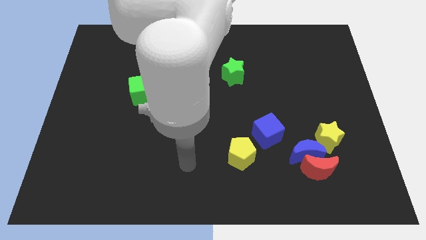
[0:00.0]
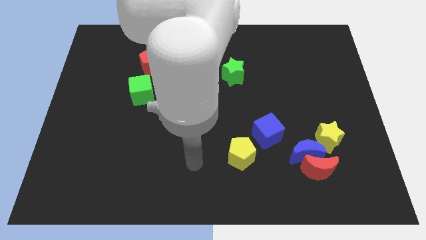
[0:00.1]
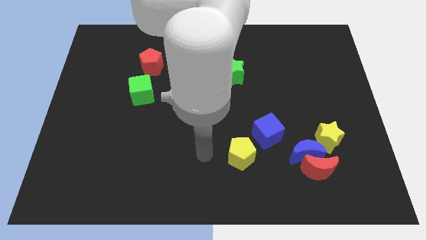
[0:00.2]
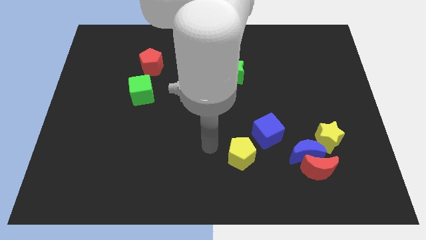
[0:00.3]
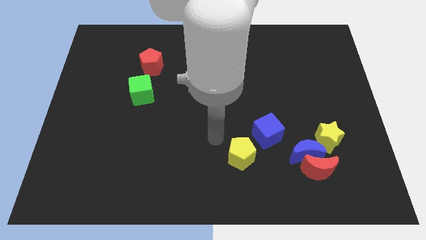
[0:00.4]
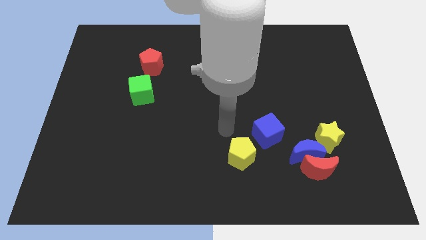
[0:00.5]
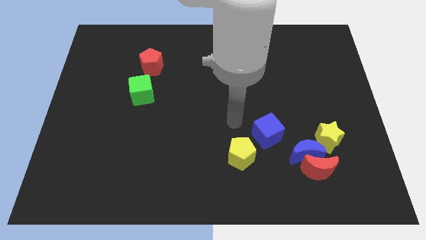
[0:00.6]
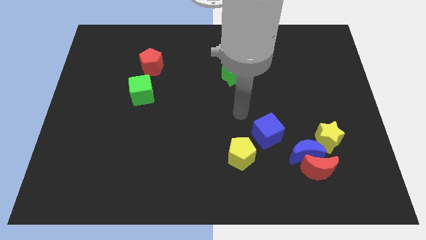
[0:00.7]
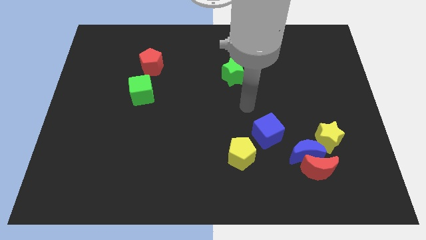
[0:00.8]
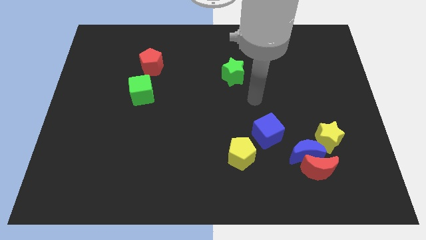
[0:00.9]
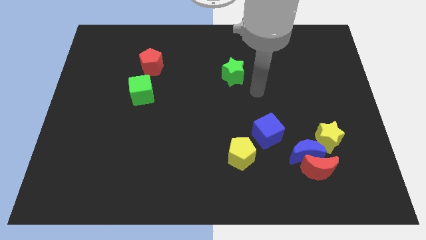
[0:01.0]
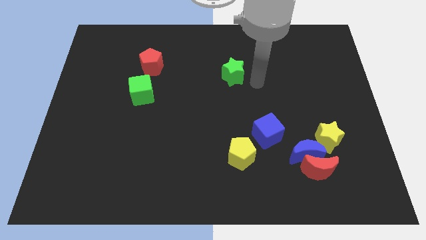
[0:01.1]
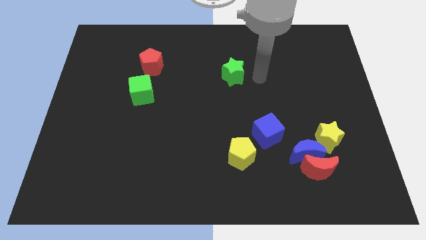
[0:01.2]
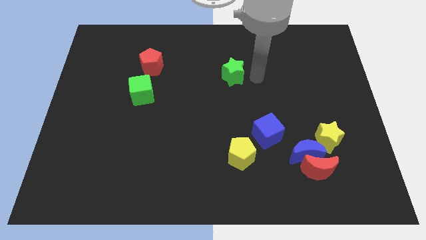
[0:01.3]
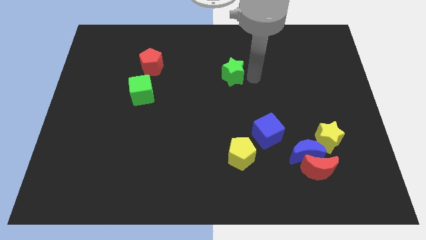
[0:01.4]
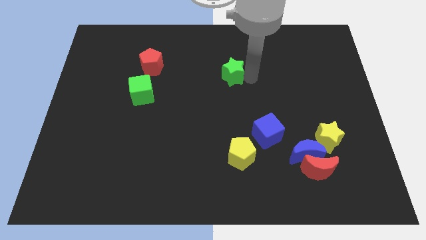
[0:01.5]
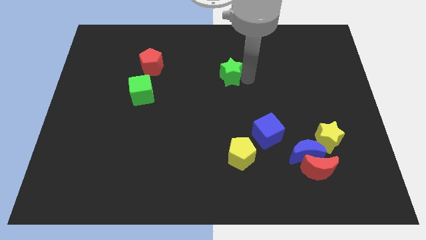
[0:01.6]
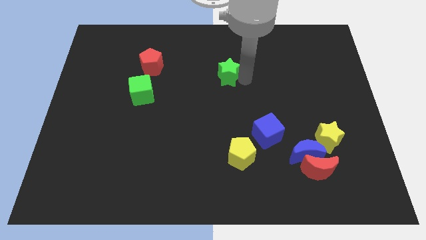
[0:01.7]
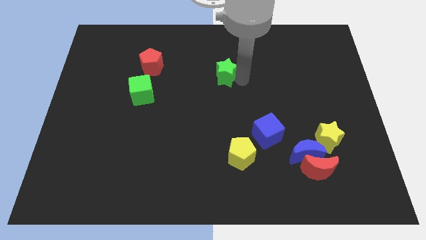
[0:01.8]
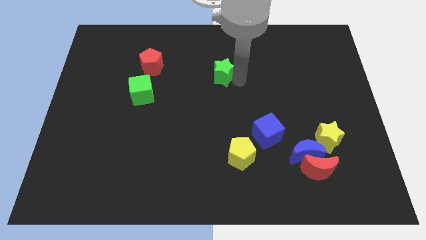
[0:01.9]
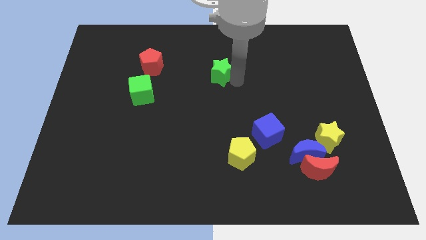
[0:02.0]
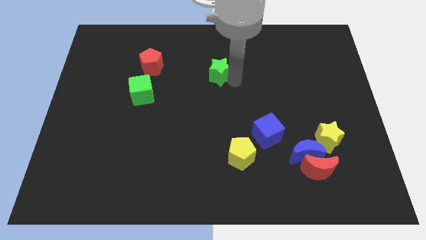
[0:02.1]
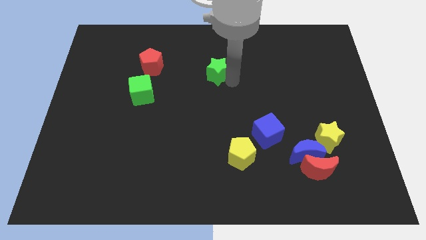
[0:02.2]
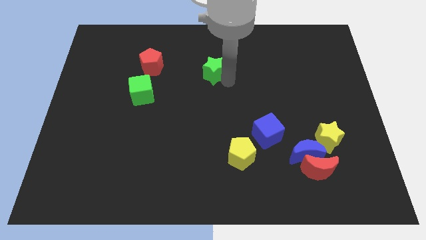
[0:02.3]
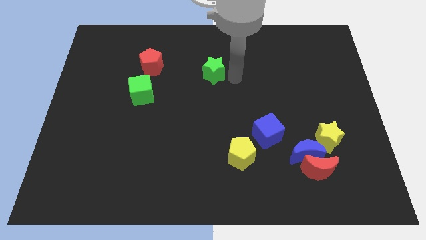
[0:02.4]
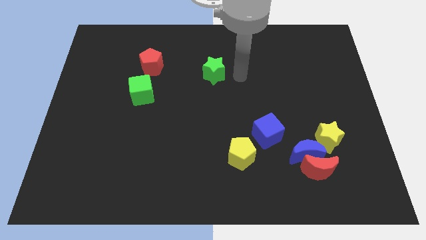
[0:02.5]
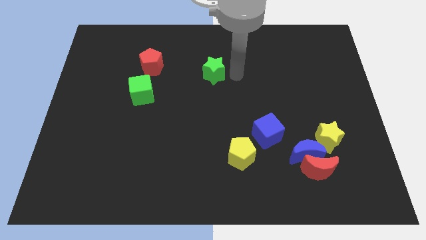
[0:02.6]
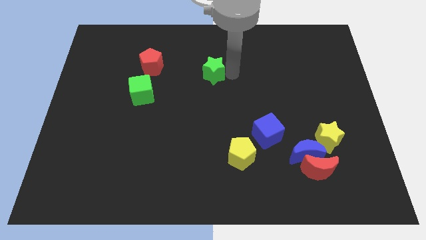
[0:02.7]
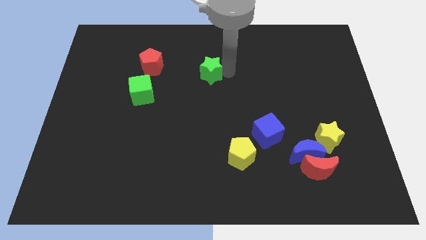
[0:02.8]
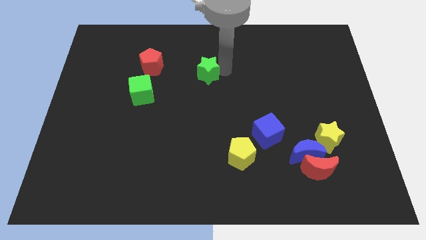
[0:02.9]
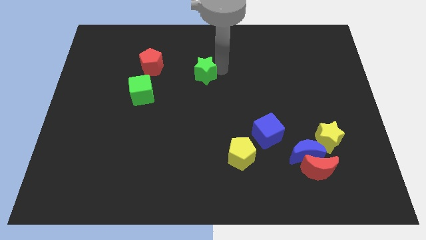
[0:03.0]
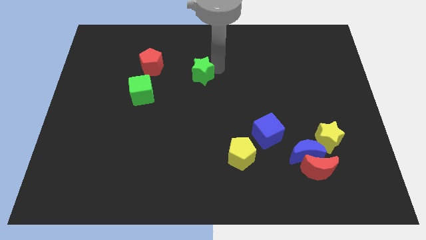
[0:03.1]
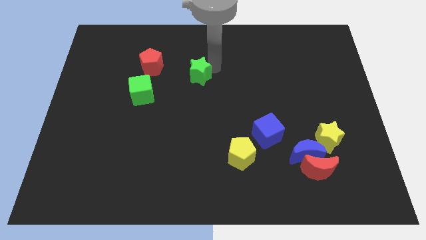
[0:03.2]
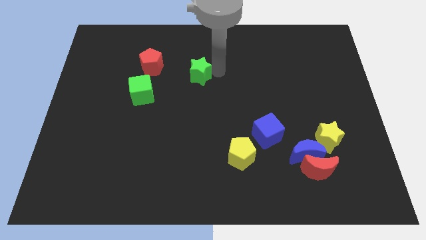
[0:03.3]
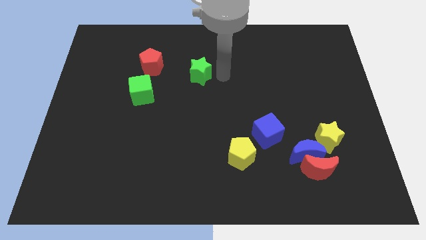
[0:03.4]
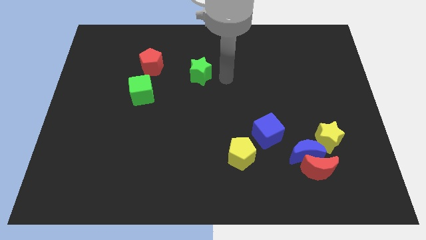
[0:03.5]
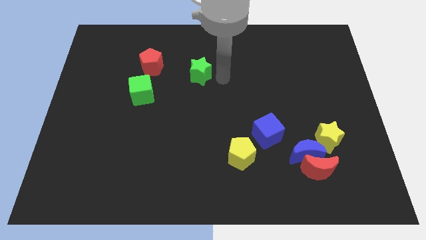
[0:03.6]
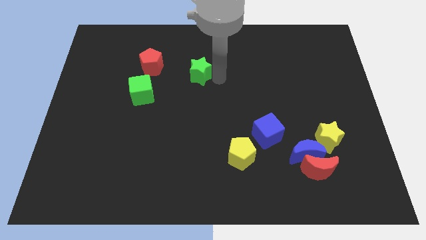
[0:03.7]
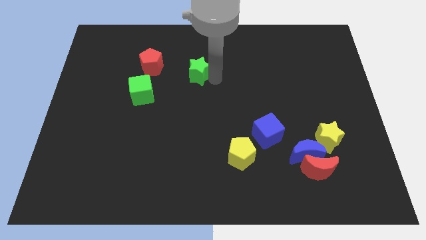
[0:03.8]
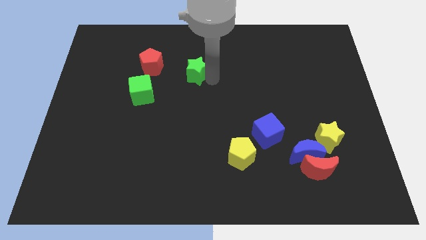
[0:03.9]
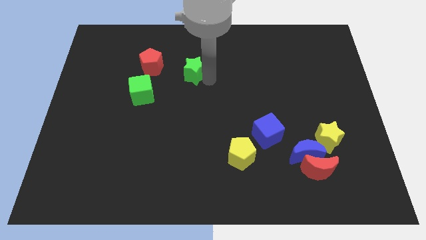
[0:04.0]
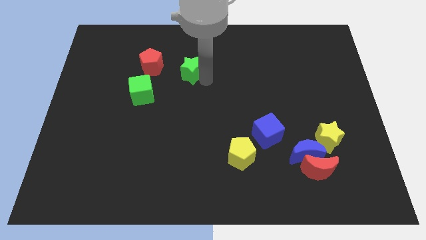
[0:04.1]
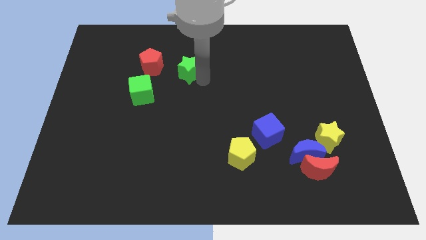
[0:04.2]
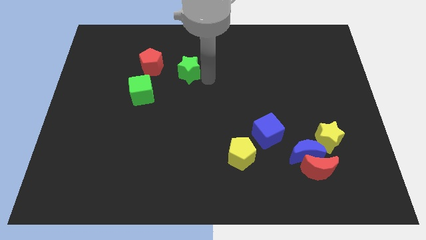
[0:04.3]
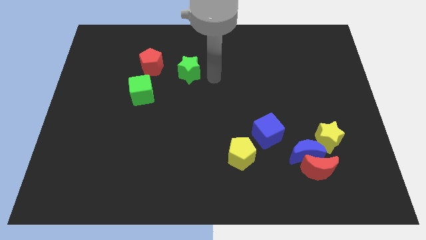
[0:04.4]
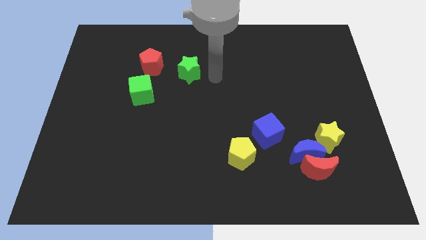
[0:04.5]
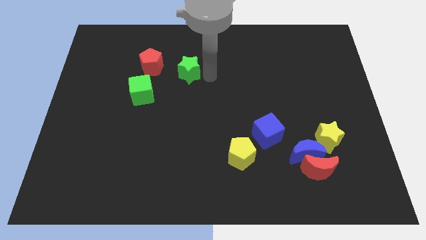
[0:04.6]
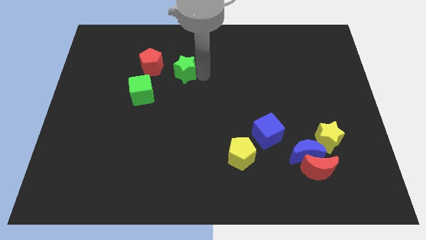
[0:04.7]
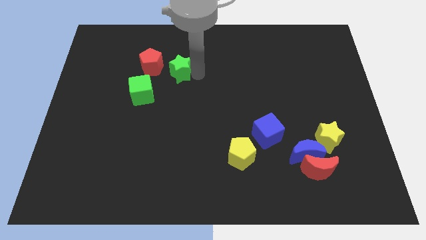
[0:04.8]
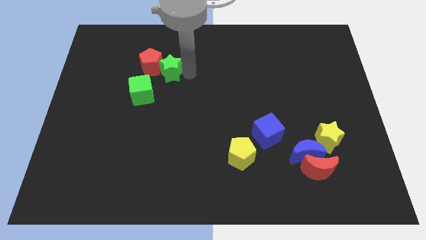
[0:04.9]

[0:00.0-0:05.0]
put the green star next to the red pentagon

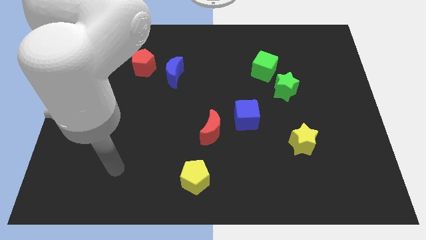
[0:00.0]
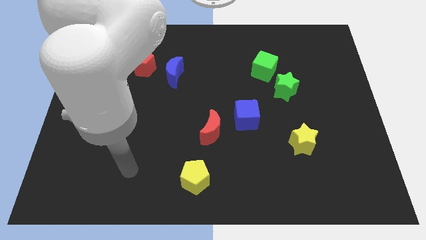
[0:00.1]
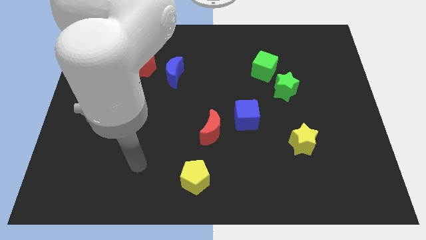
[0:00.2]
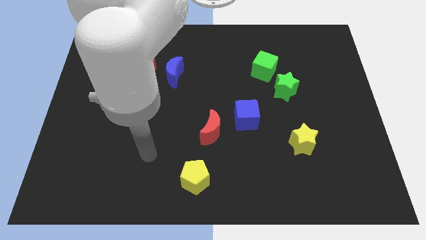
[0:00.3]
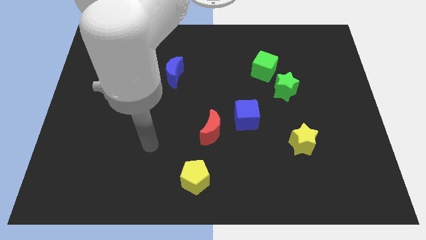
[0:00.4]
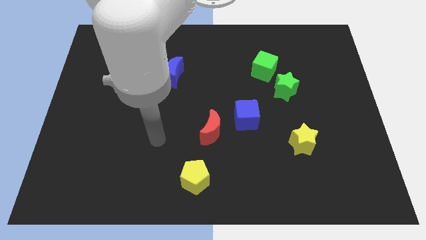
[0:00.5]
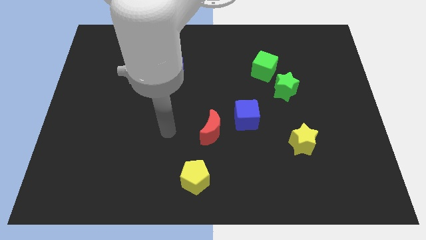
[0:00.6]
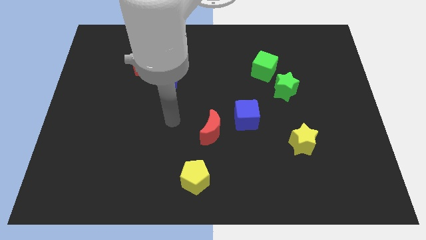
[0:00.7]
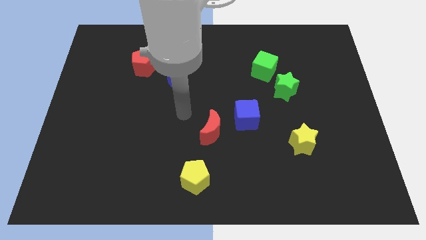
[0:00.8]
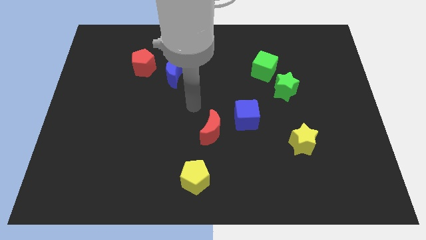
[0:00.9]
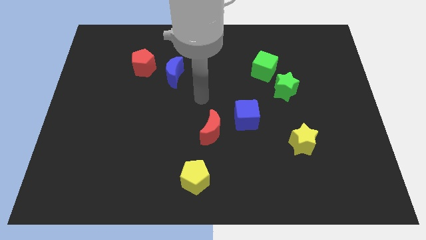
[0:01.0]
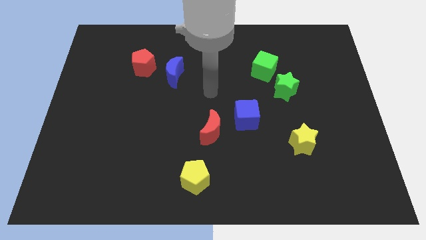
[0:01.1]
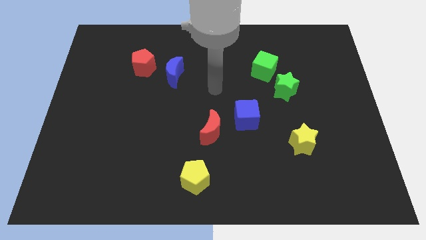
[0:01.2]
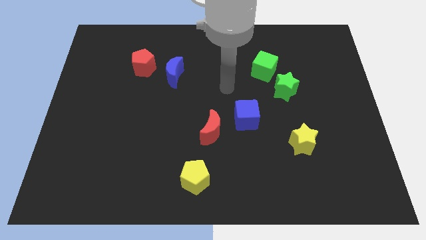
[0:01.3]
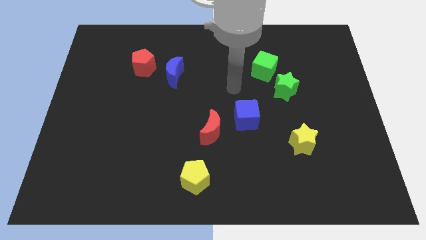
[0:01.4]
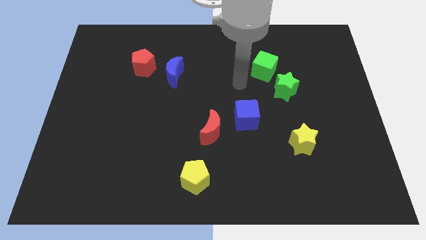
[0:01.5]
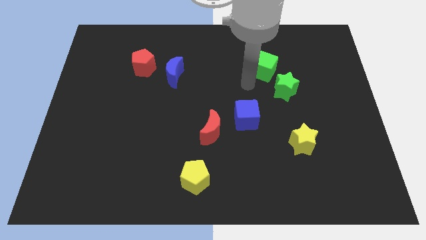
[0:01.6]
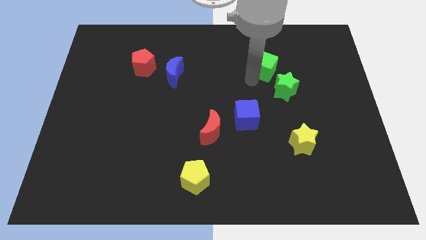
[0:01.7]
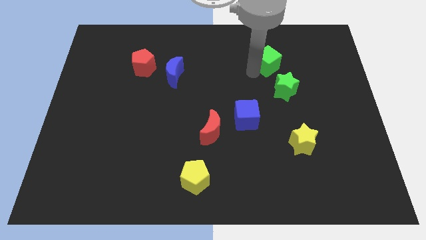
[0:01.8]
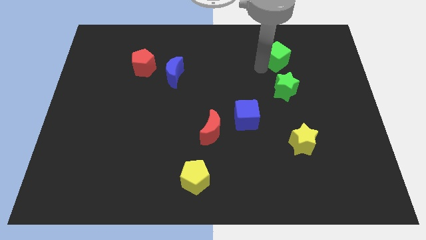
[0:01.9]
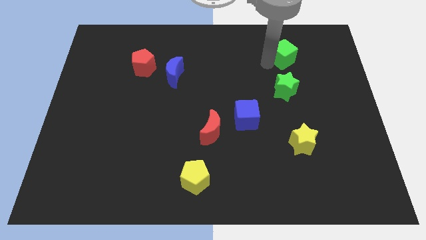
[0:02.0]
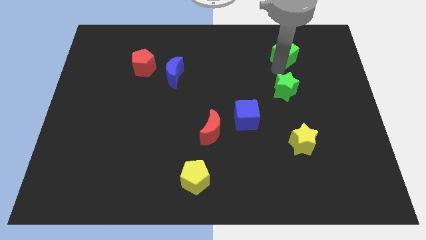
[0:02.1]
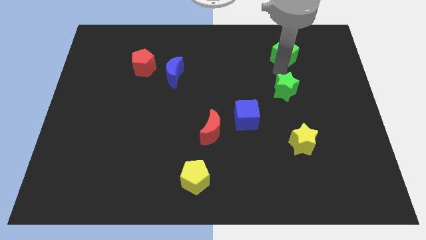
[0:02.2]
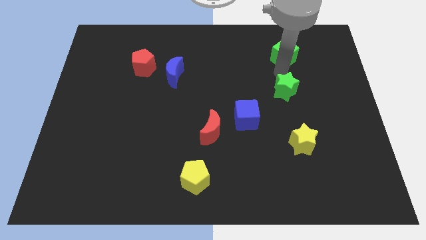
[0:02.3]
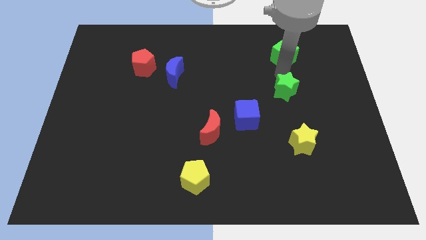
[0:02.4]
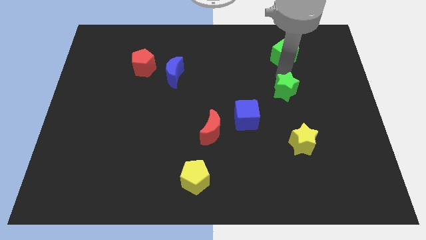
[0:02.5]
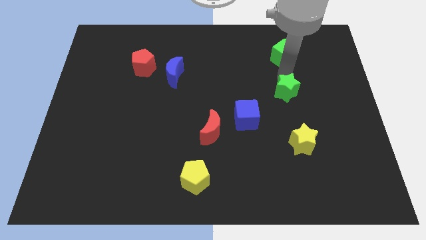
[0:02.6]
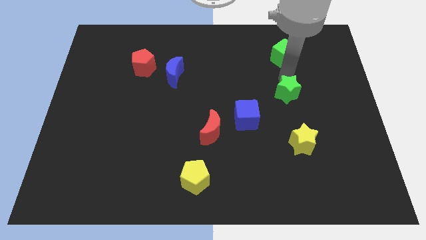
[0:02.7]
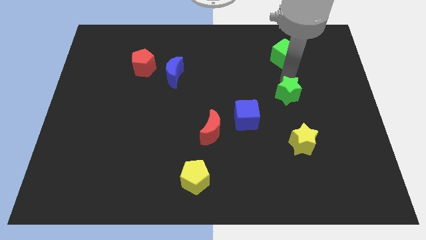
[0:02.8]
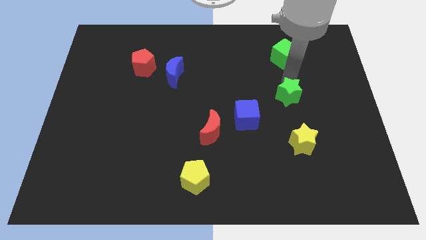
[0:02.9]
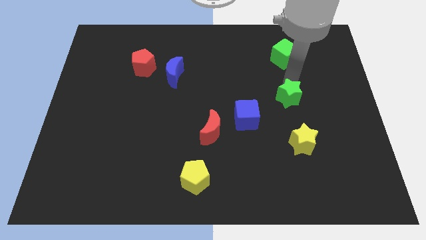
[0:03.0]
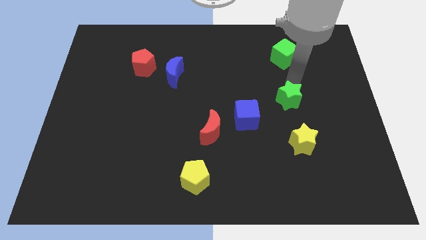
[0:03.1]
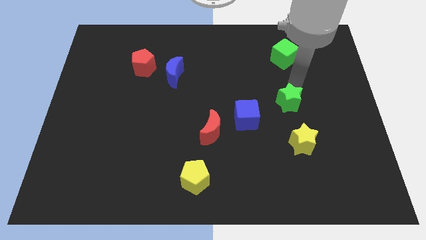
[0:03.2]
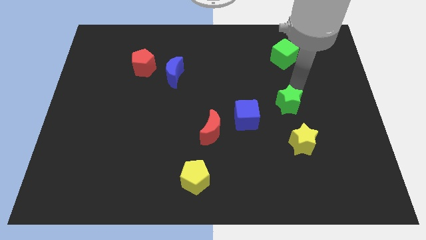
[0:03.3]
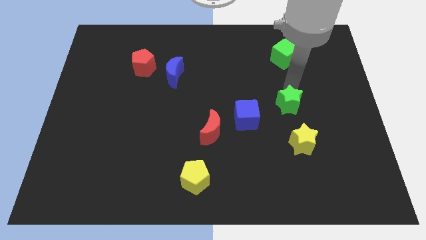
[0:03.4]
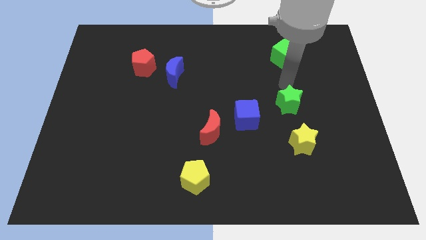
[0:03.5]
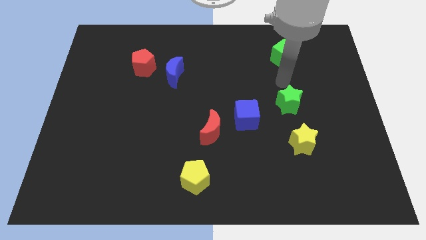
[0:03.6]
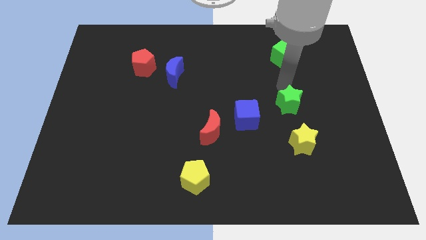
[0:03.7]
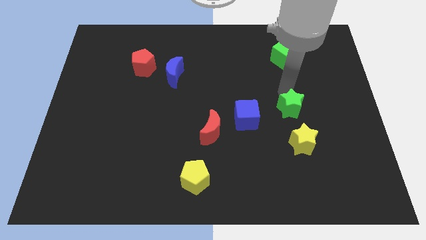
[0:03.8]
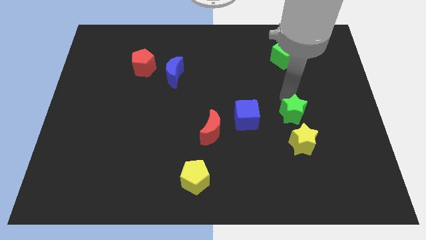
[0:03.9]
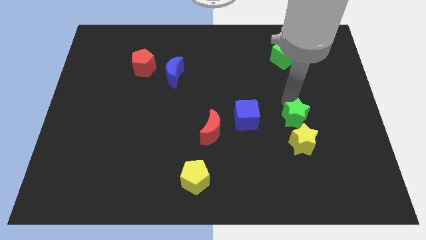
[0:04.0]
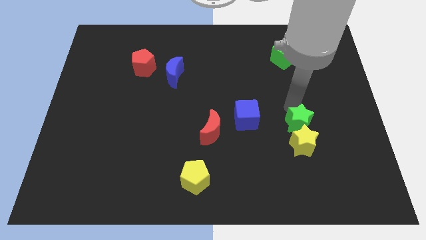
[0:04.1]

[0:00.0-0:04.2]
slide the green star towards the yellow star
